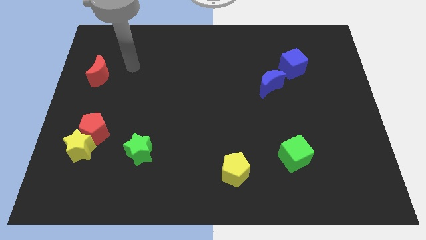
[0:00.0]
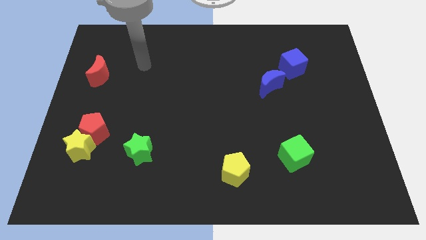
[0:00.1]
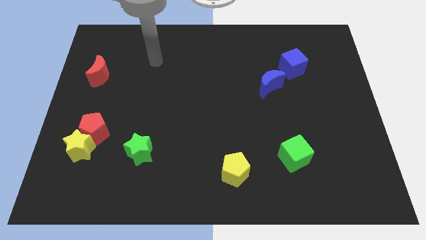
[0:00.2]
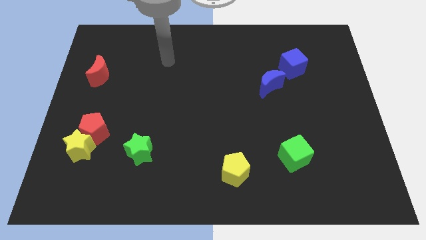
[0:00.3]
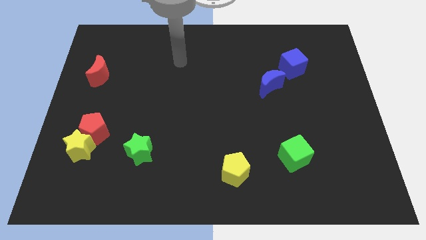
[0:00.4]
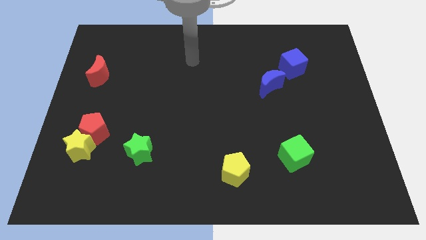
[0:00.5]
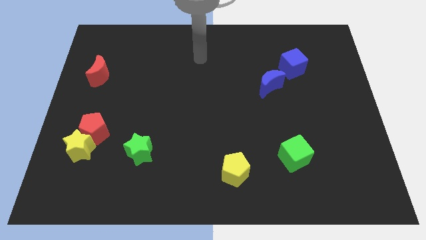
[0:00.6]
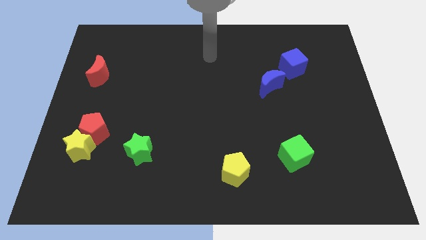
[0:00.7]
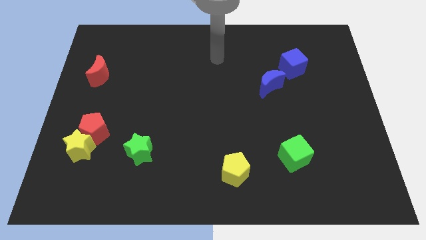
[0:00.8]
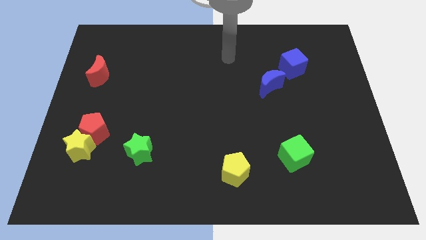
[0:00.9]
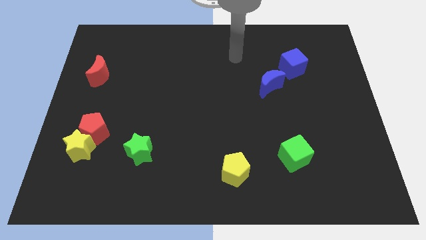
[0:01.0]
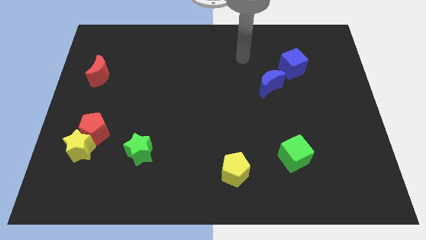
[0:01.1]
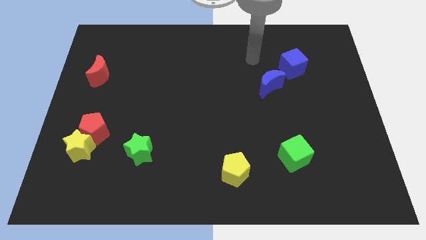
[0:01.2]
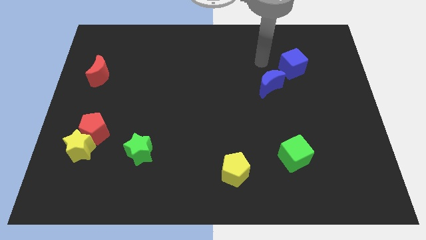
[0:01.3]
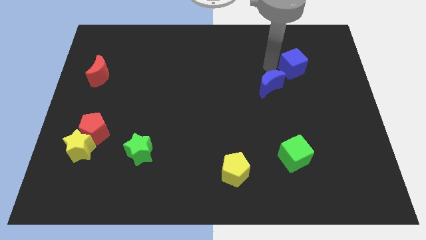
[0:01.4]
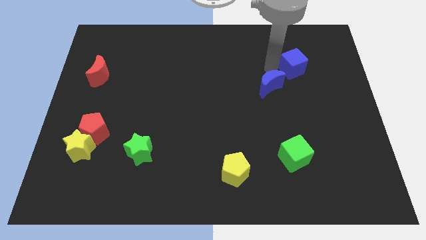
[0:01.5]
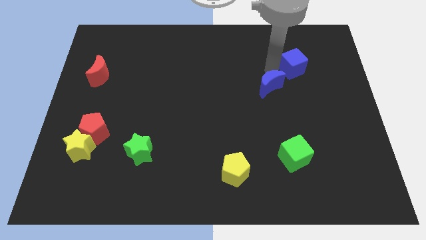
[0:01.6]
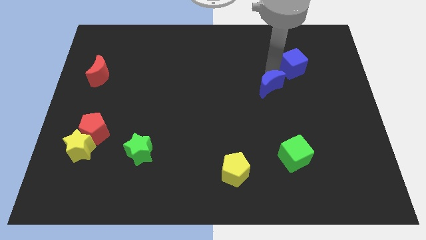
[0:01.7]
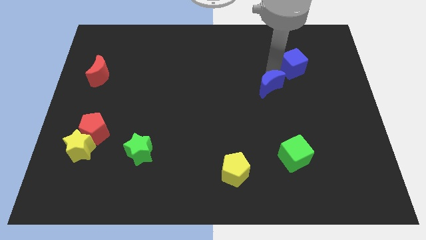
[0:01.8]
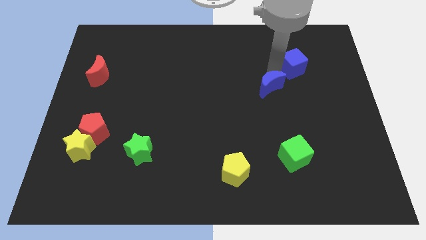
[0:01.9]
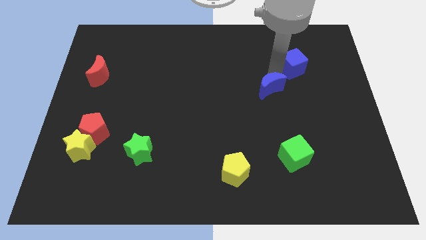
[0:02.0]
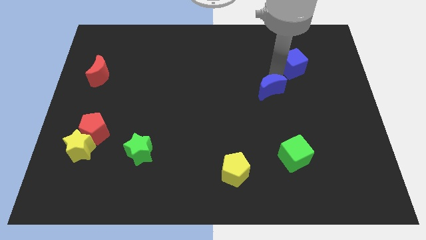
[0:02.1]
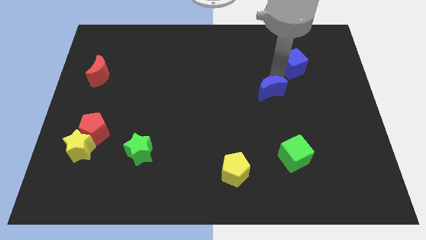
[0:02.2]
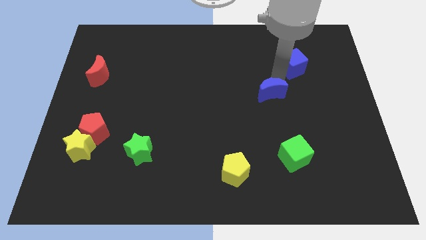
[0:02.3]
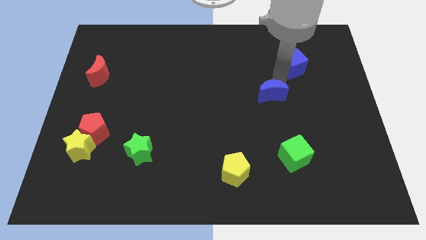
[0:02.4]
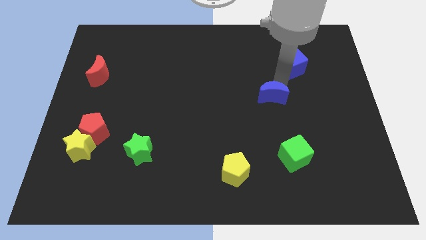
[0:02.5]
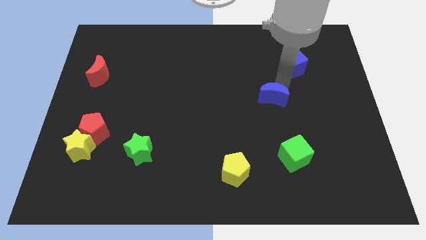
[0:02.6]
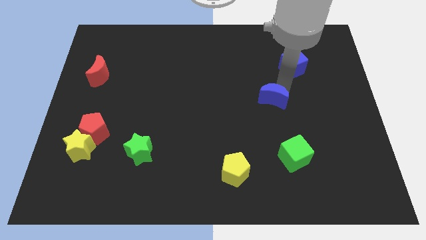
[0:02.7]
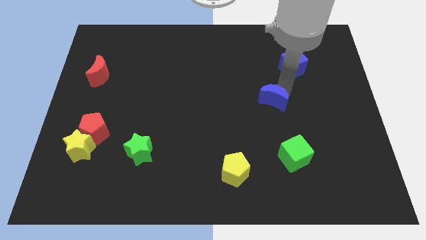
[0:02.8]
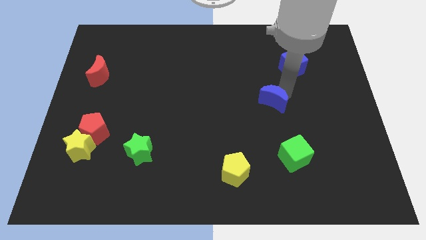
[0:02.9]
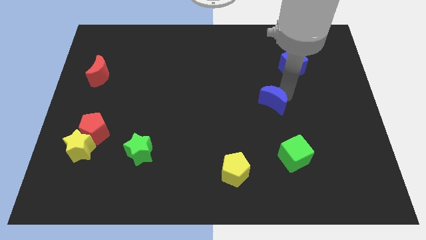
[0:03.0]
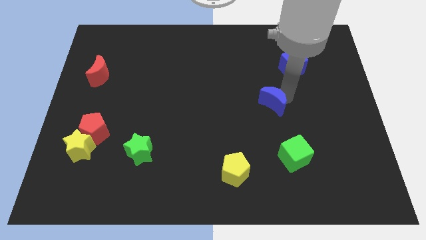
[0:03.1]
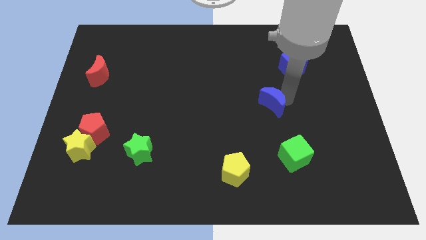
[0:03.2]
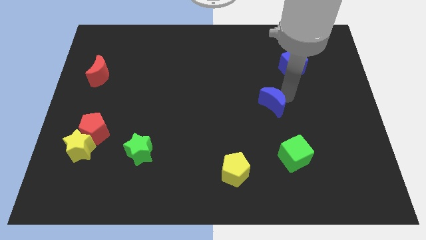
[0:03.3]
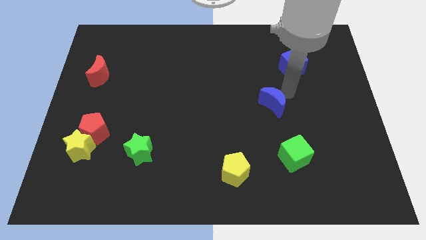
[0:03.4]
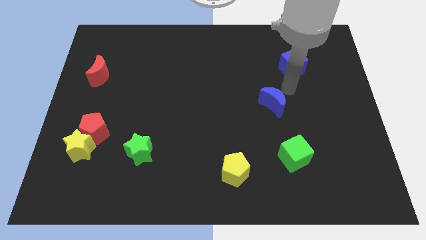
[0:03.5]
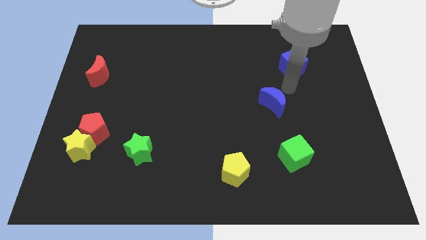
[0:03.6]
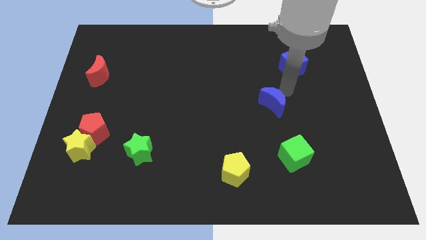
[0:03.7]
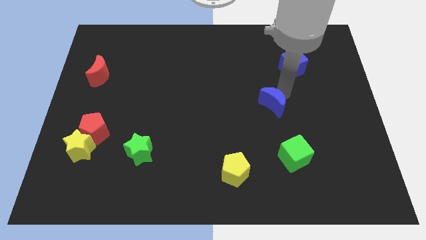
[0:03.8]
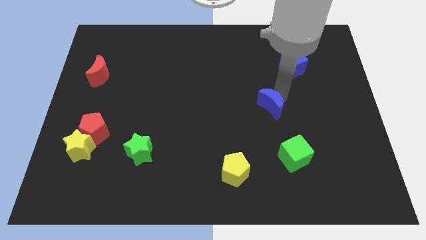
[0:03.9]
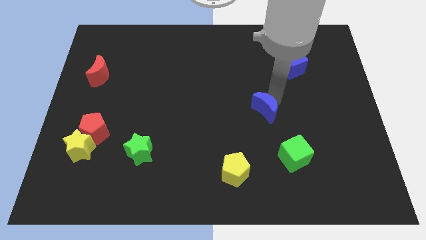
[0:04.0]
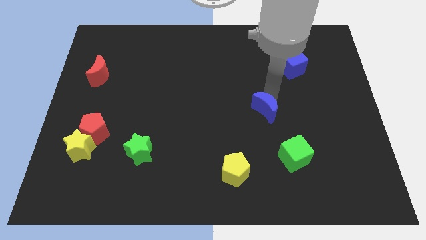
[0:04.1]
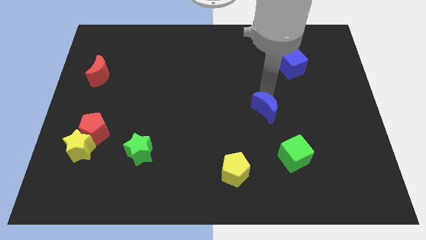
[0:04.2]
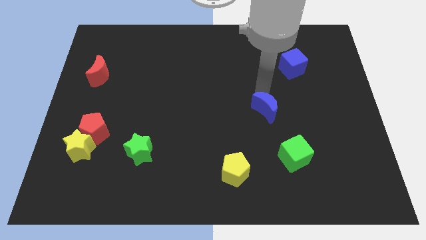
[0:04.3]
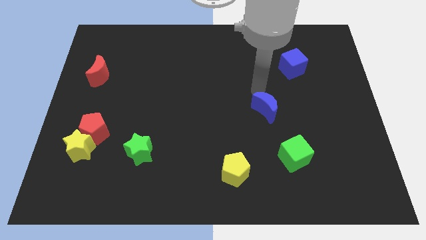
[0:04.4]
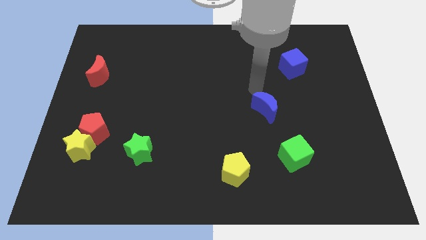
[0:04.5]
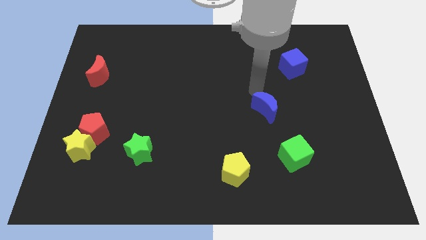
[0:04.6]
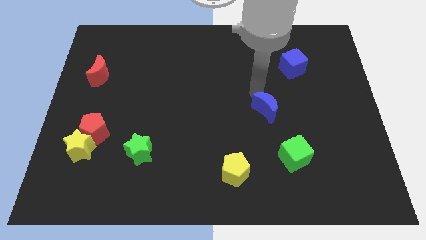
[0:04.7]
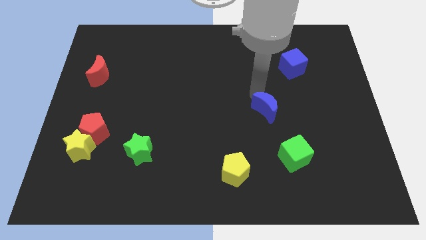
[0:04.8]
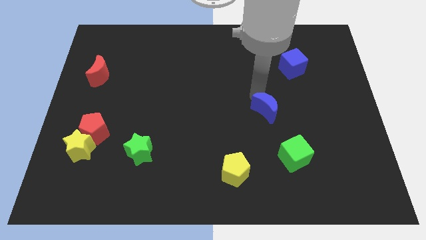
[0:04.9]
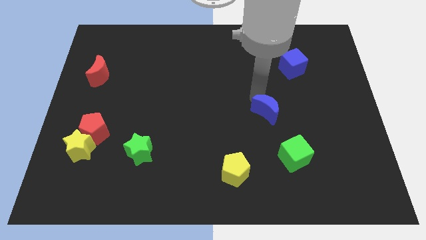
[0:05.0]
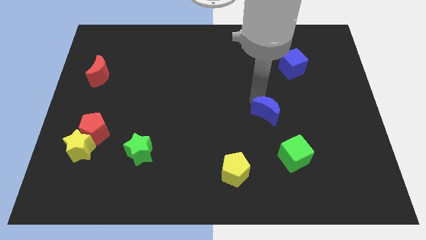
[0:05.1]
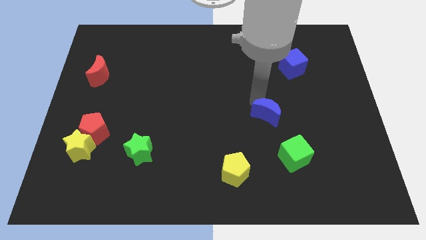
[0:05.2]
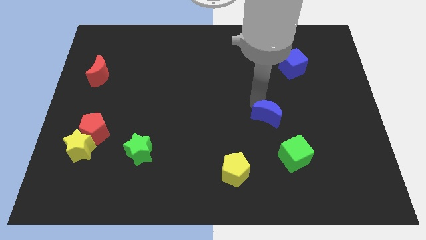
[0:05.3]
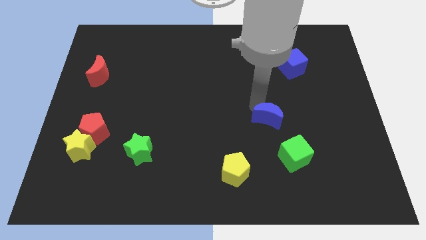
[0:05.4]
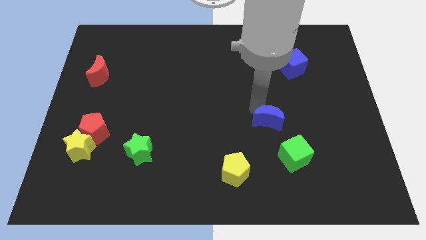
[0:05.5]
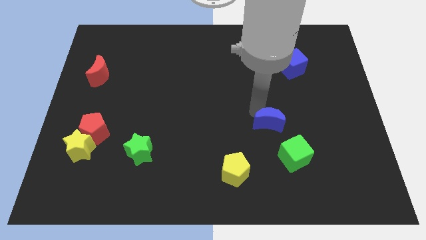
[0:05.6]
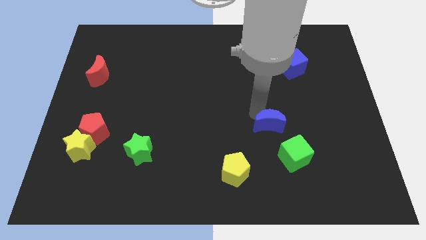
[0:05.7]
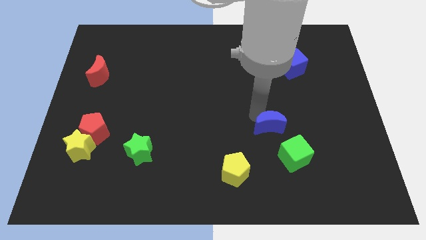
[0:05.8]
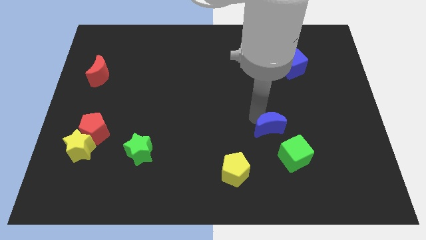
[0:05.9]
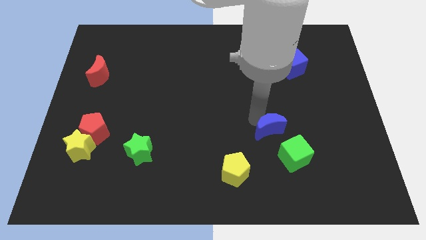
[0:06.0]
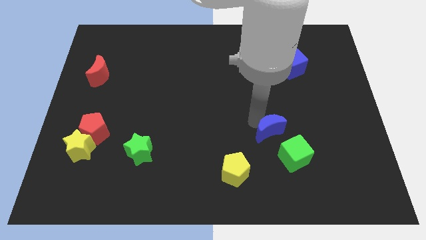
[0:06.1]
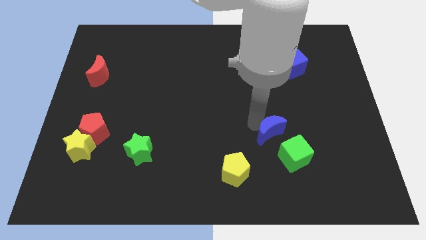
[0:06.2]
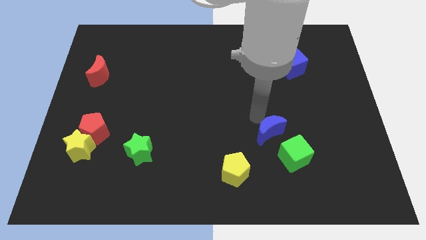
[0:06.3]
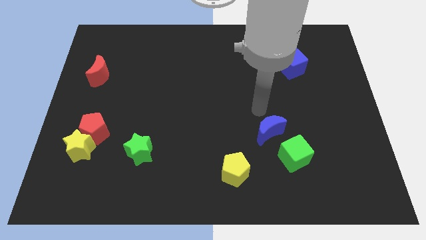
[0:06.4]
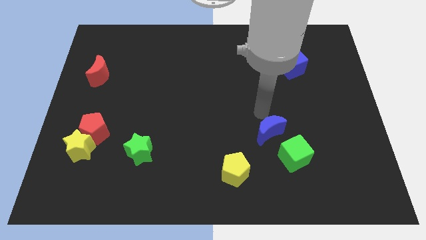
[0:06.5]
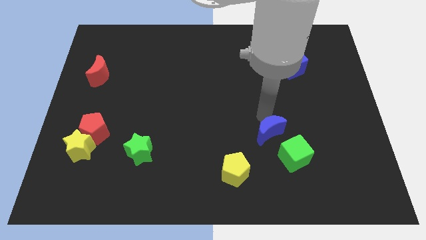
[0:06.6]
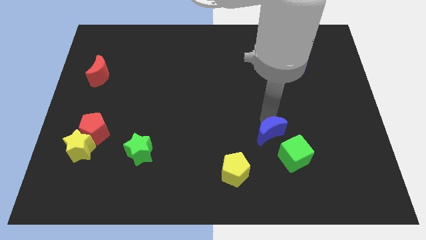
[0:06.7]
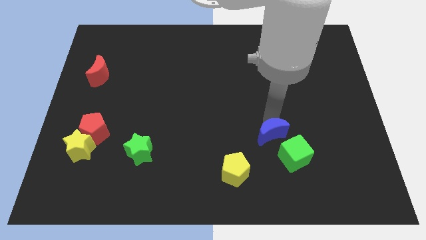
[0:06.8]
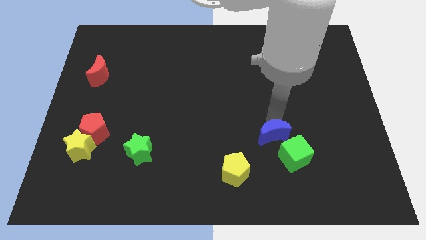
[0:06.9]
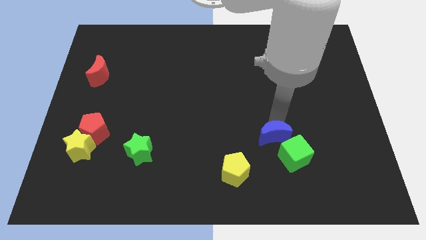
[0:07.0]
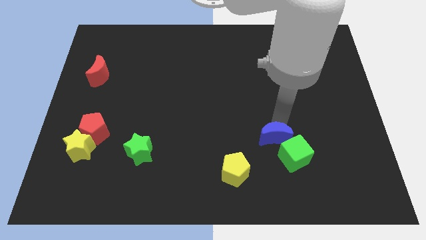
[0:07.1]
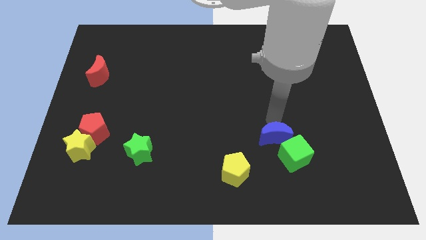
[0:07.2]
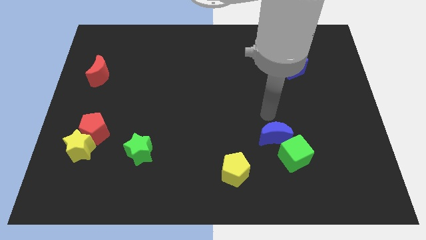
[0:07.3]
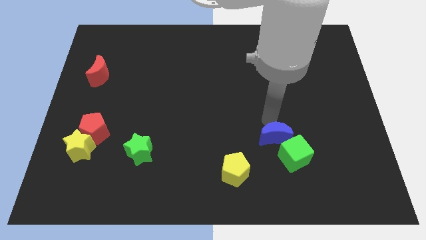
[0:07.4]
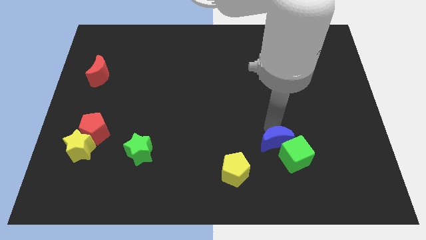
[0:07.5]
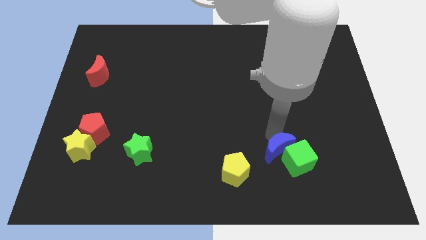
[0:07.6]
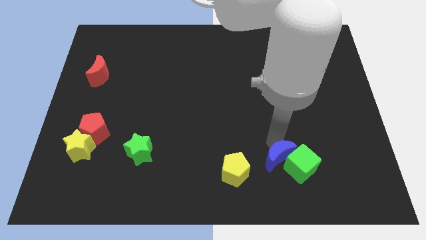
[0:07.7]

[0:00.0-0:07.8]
move the blue moon just right of the yellow pentagon
